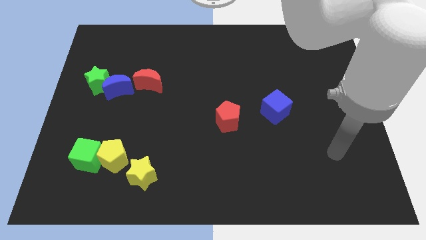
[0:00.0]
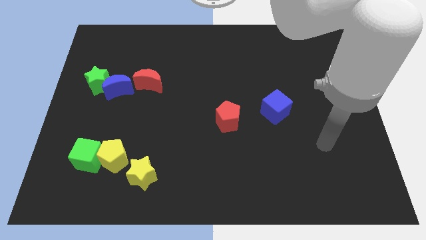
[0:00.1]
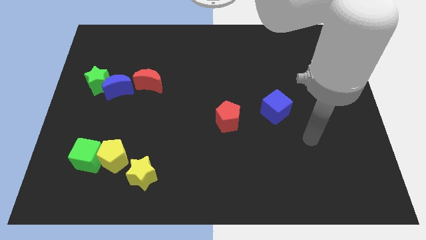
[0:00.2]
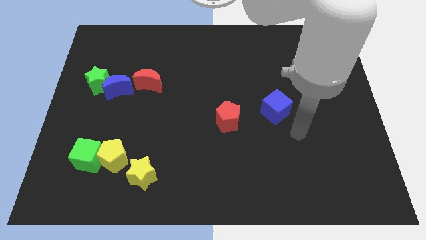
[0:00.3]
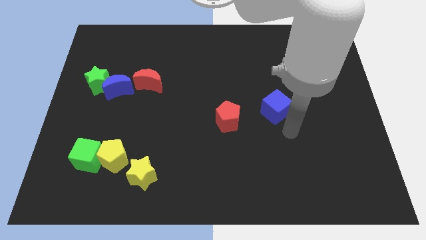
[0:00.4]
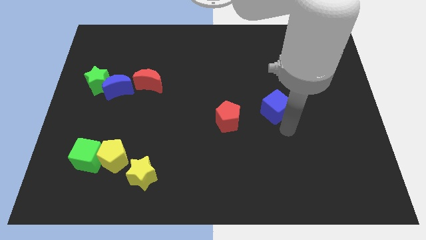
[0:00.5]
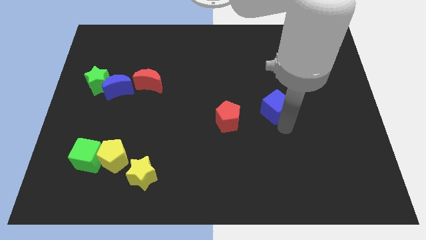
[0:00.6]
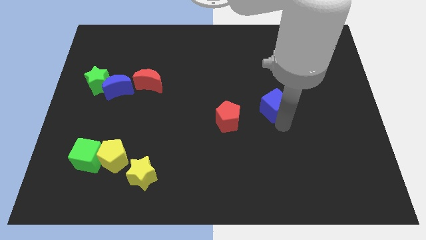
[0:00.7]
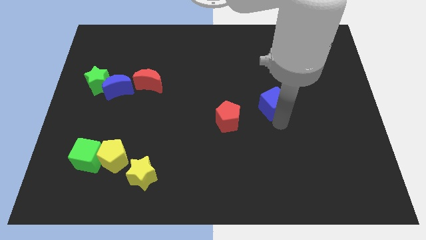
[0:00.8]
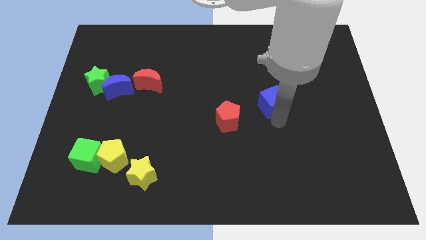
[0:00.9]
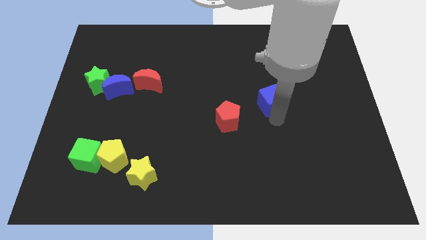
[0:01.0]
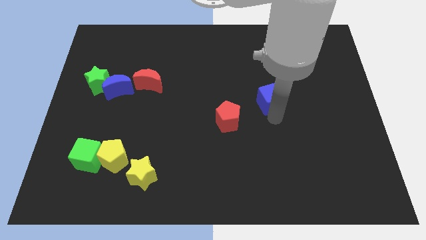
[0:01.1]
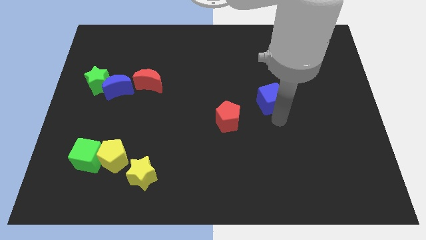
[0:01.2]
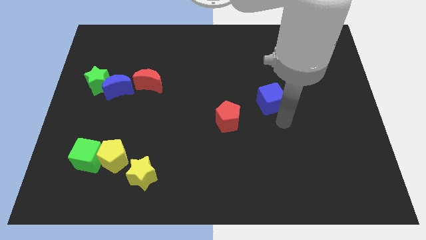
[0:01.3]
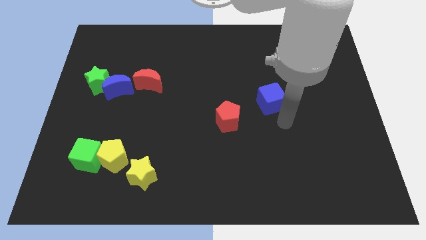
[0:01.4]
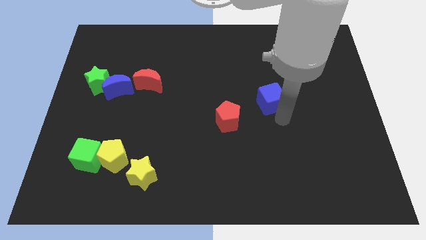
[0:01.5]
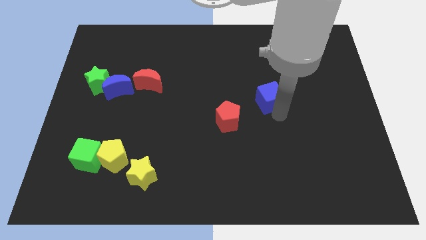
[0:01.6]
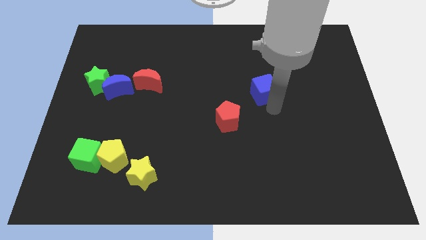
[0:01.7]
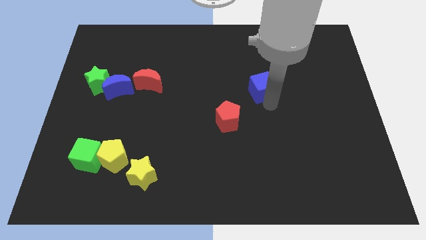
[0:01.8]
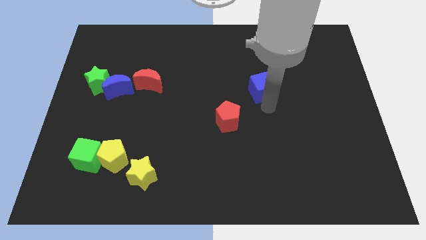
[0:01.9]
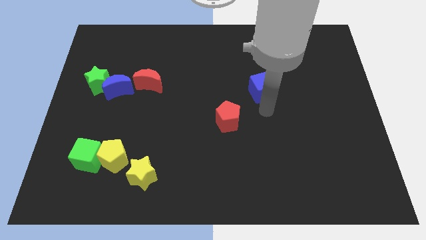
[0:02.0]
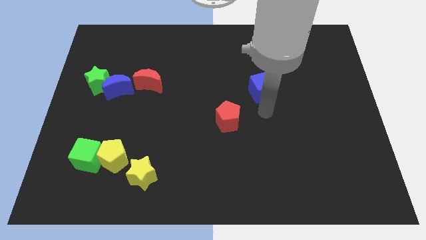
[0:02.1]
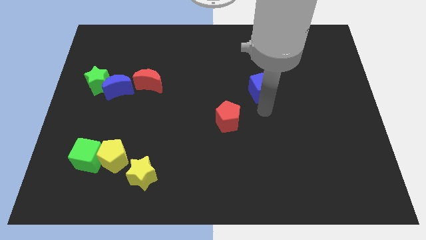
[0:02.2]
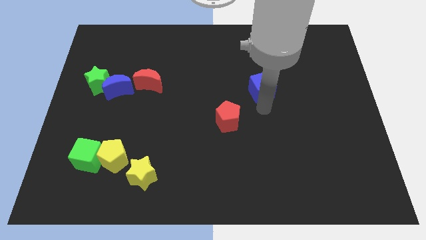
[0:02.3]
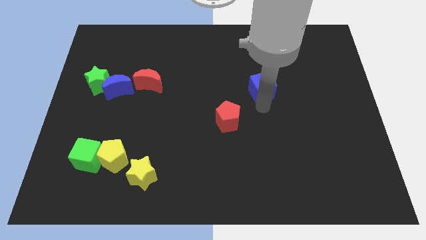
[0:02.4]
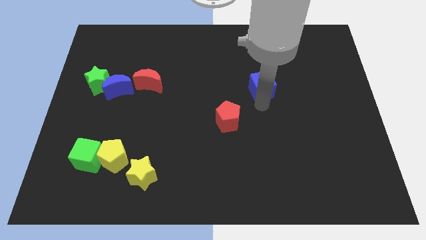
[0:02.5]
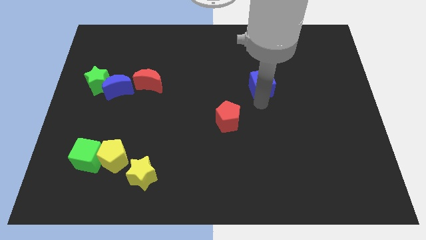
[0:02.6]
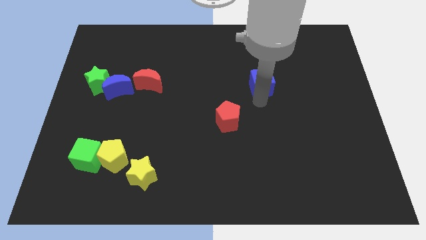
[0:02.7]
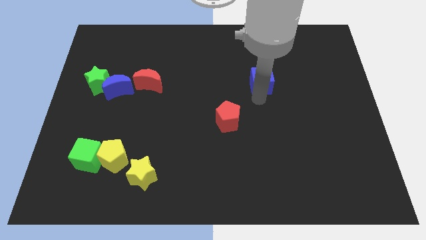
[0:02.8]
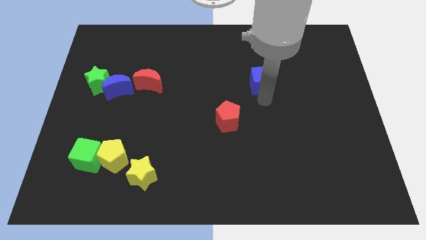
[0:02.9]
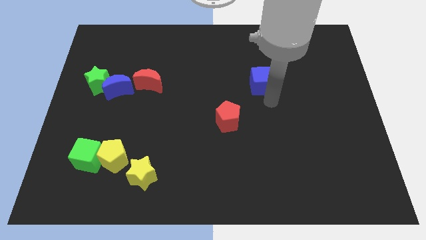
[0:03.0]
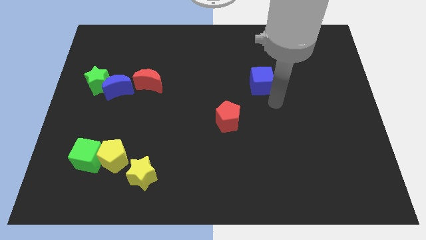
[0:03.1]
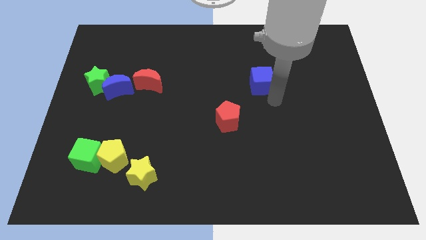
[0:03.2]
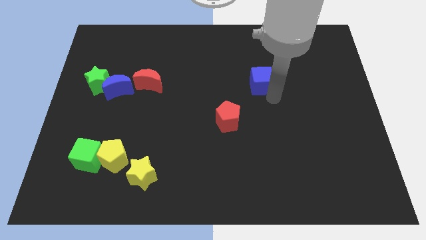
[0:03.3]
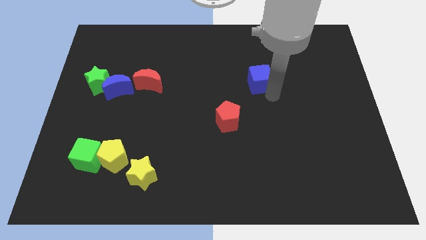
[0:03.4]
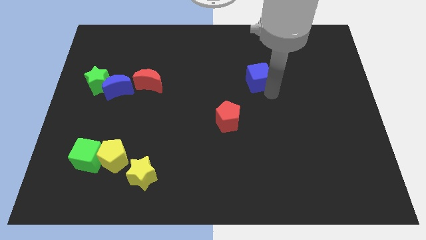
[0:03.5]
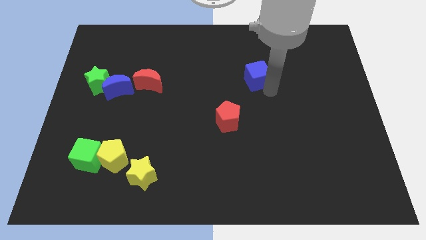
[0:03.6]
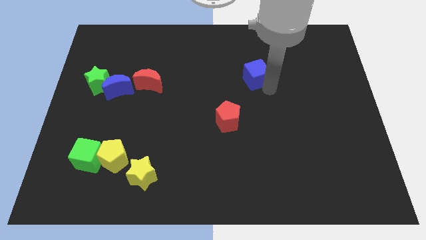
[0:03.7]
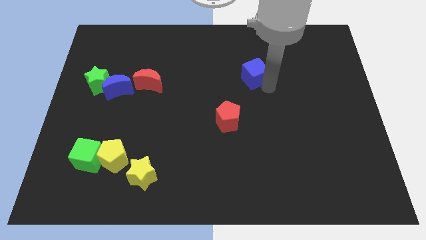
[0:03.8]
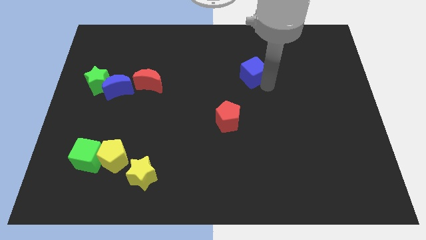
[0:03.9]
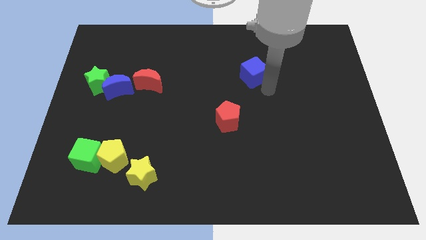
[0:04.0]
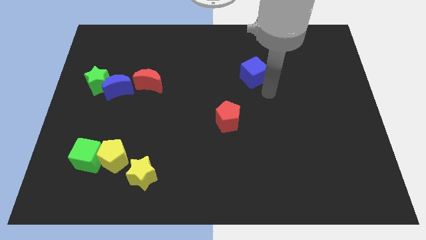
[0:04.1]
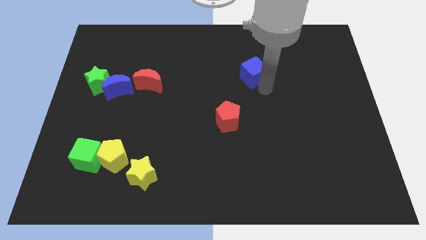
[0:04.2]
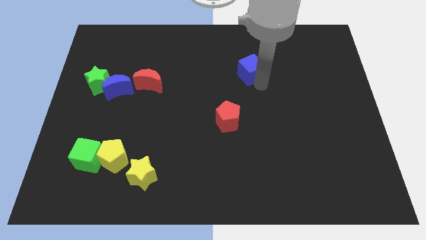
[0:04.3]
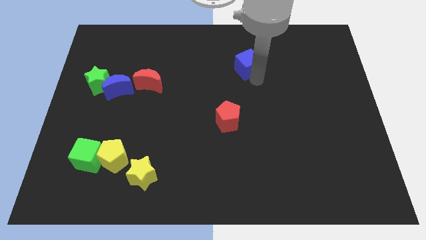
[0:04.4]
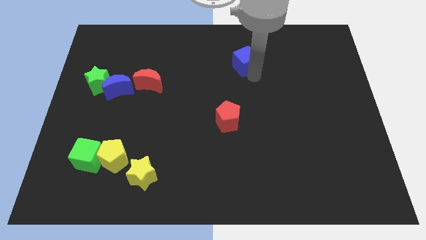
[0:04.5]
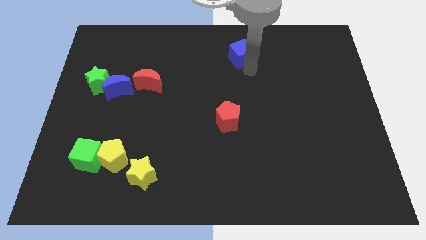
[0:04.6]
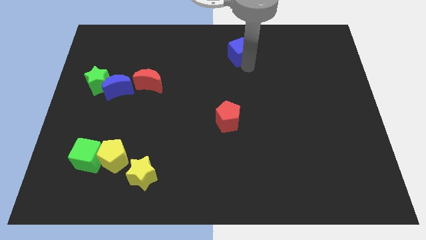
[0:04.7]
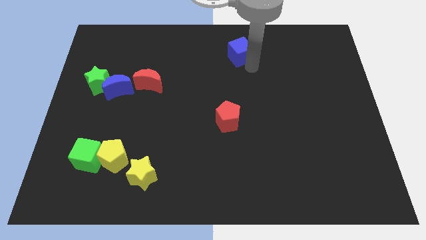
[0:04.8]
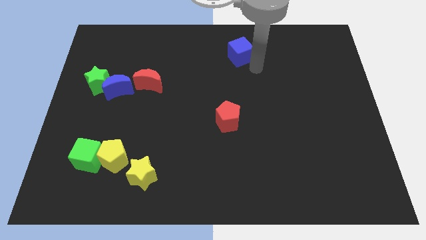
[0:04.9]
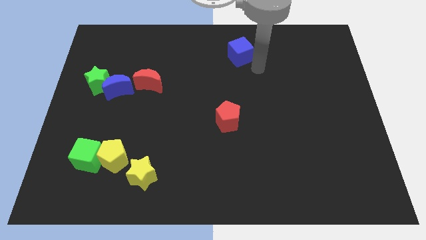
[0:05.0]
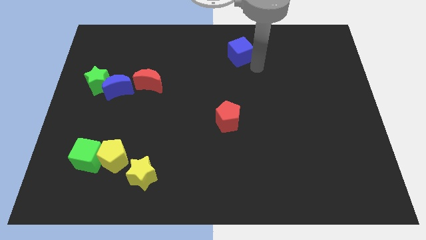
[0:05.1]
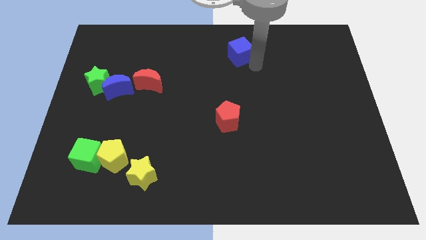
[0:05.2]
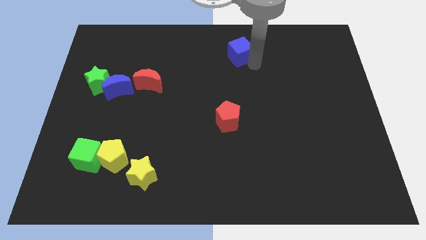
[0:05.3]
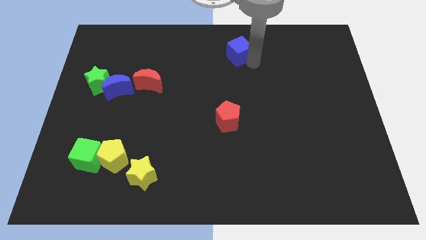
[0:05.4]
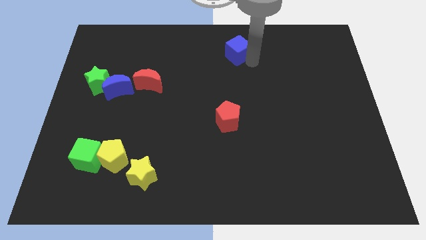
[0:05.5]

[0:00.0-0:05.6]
move the blue cube to the towards your base

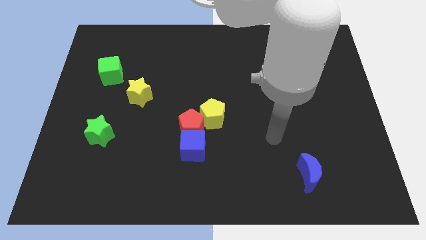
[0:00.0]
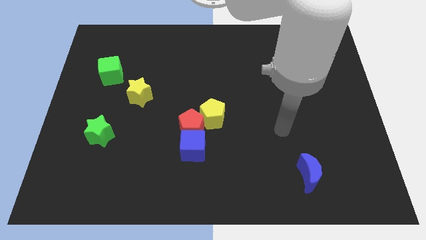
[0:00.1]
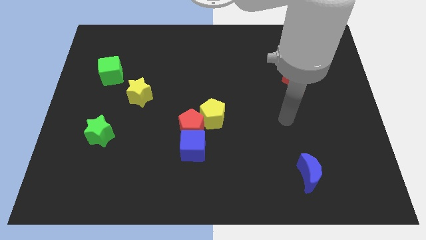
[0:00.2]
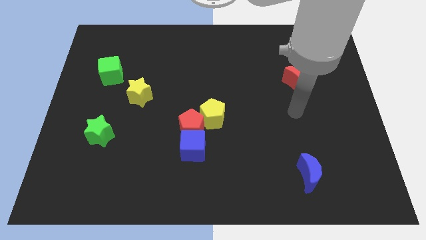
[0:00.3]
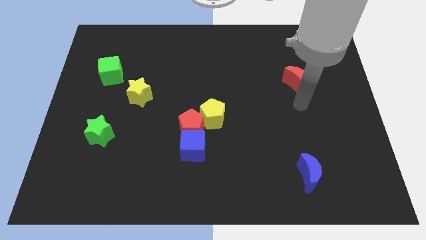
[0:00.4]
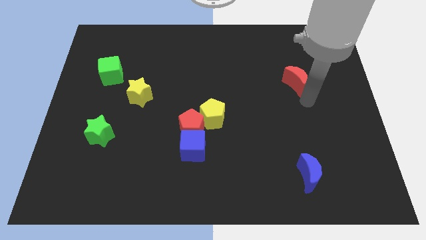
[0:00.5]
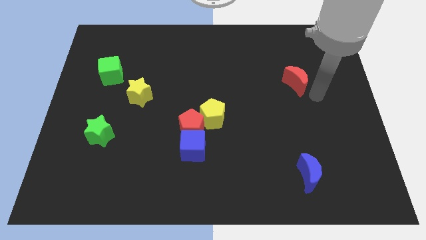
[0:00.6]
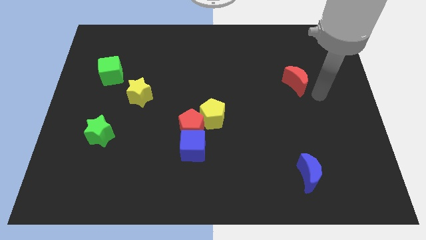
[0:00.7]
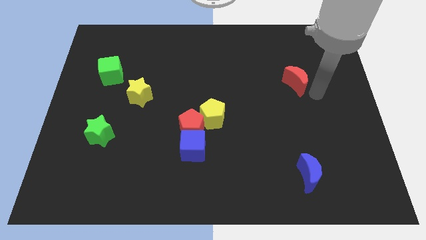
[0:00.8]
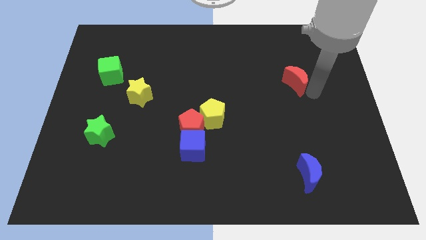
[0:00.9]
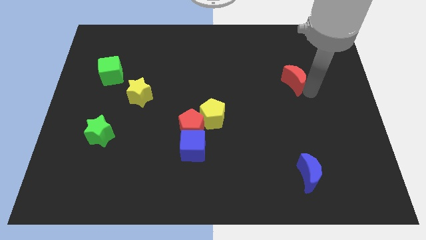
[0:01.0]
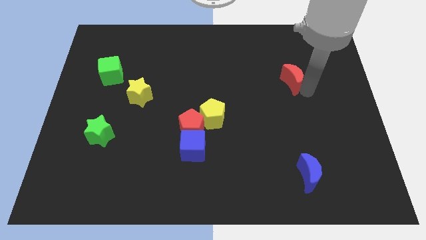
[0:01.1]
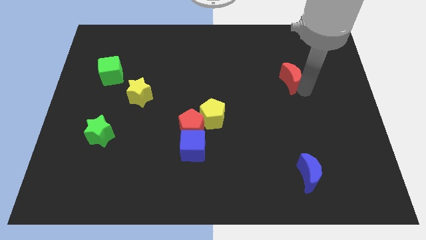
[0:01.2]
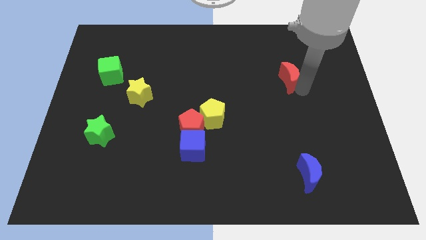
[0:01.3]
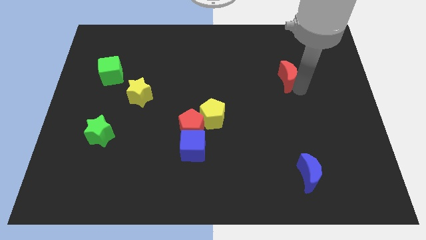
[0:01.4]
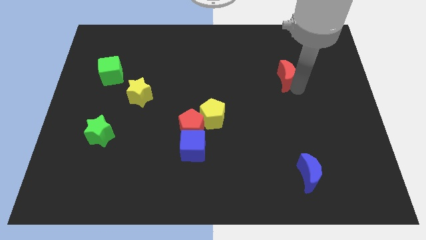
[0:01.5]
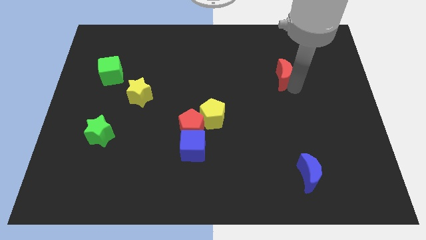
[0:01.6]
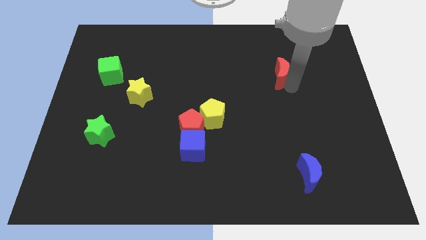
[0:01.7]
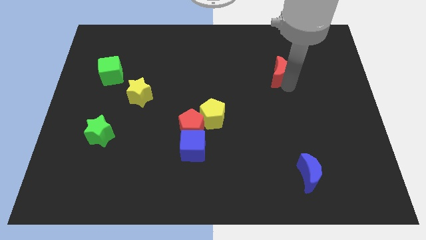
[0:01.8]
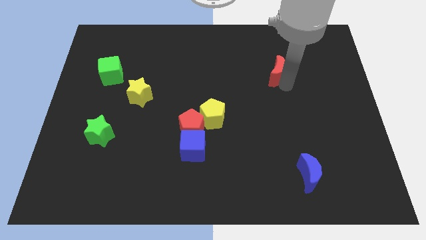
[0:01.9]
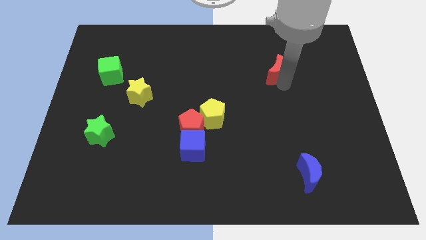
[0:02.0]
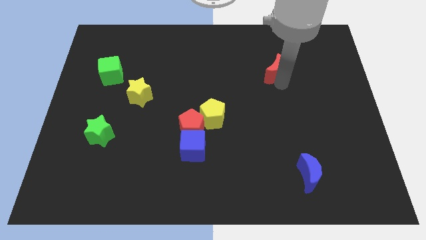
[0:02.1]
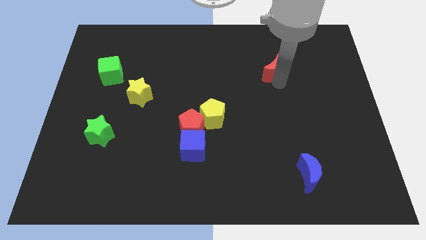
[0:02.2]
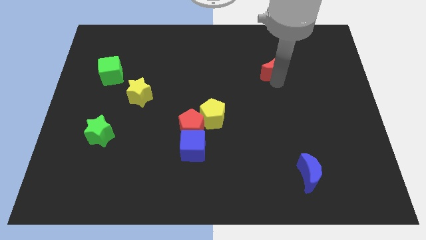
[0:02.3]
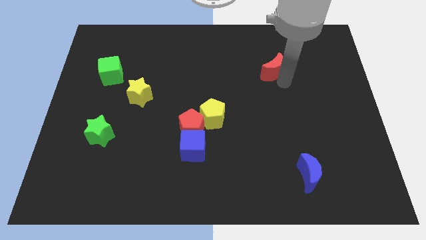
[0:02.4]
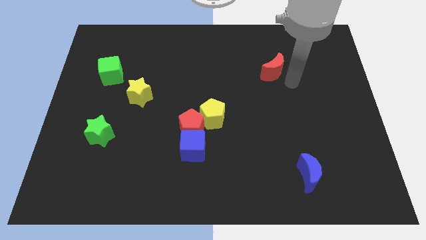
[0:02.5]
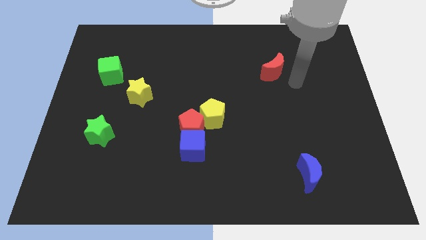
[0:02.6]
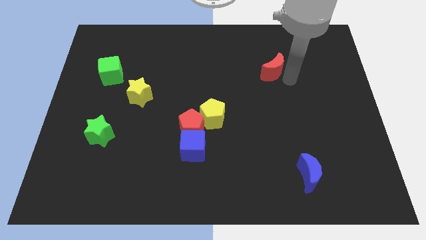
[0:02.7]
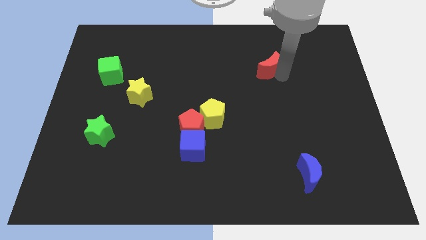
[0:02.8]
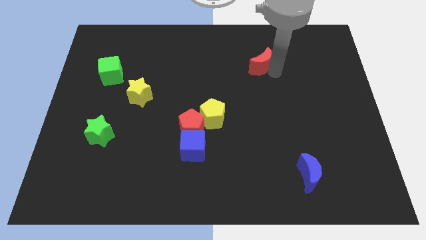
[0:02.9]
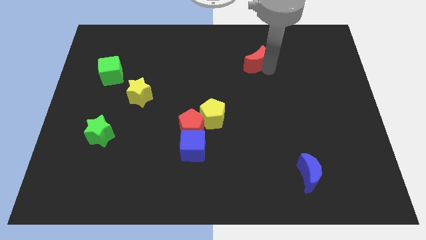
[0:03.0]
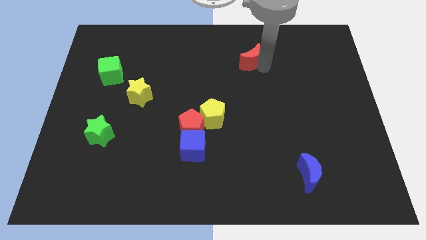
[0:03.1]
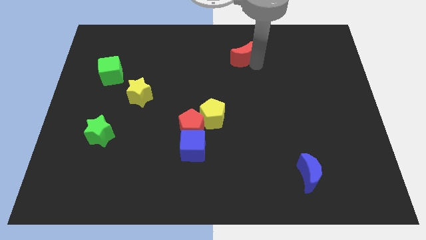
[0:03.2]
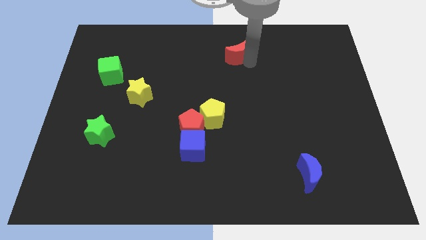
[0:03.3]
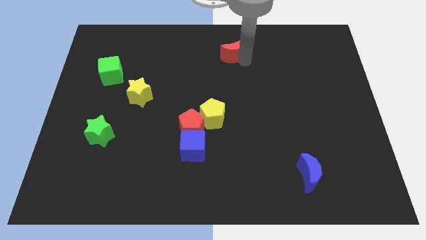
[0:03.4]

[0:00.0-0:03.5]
slide the red moon to the top
